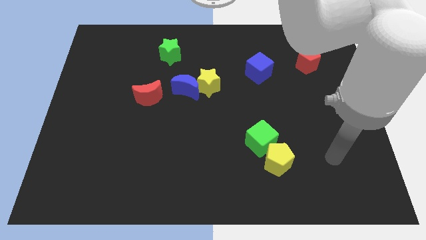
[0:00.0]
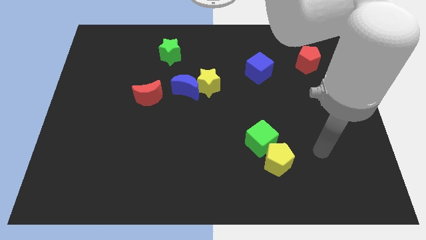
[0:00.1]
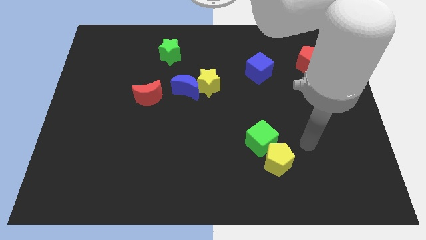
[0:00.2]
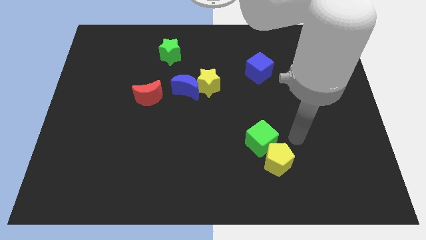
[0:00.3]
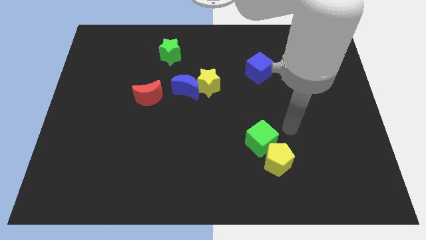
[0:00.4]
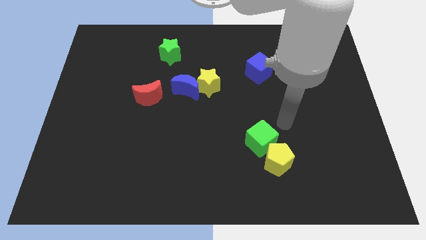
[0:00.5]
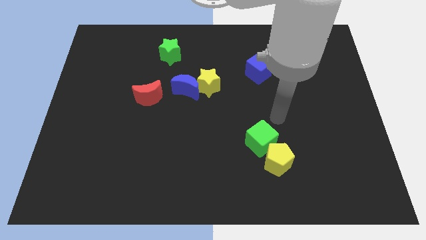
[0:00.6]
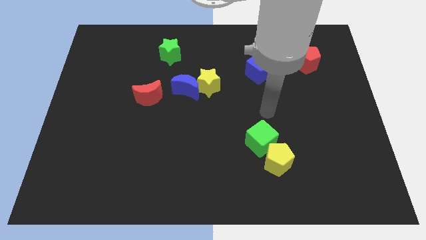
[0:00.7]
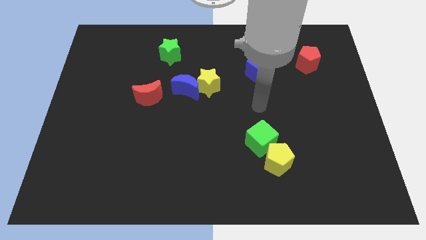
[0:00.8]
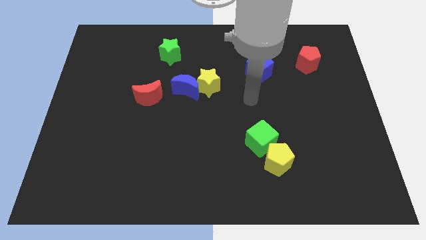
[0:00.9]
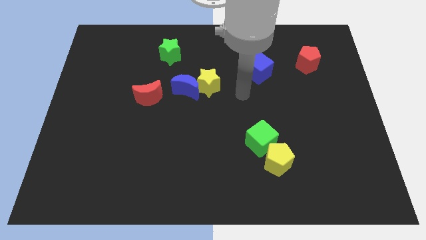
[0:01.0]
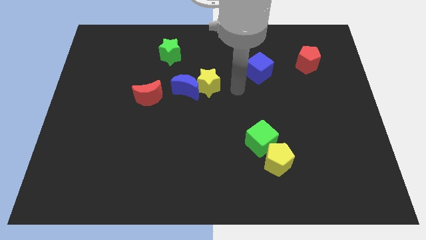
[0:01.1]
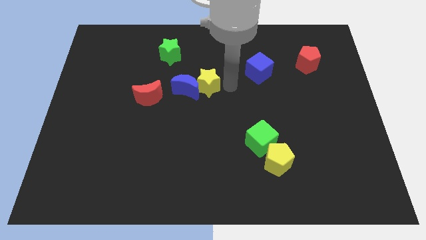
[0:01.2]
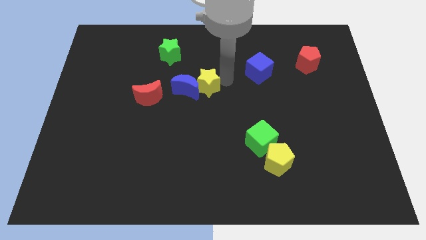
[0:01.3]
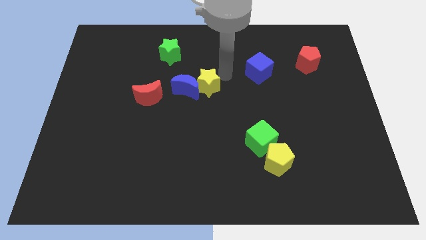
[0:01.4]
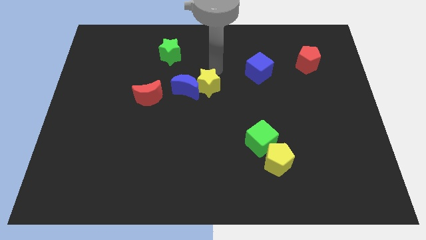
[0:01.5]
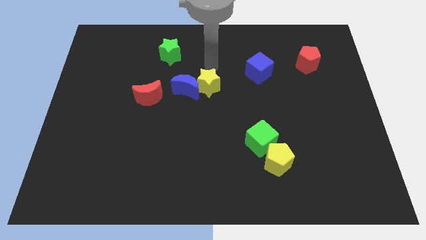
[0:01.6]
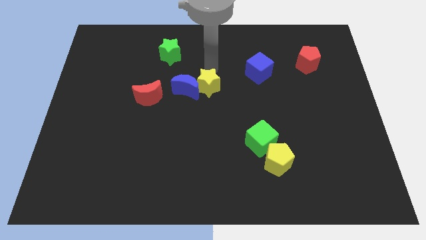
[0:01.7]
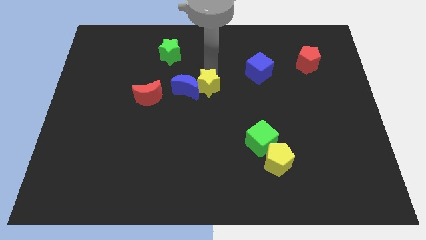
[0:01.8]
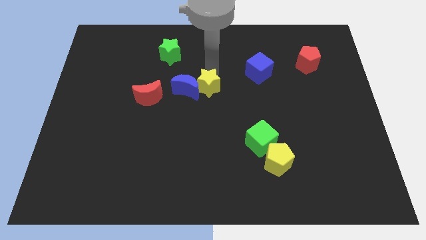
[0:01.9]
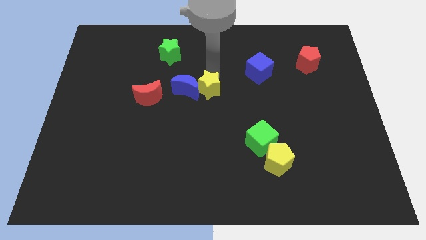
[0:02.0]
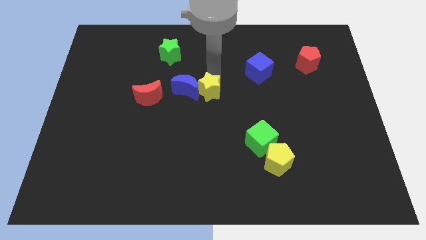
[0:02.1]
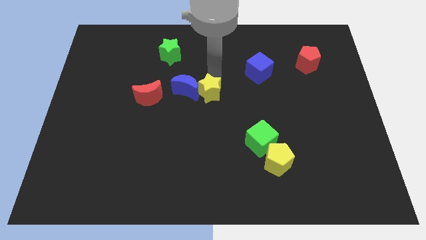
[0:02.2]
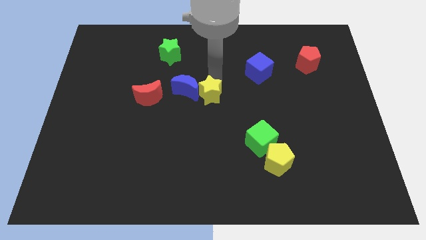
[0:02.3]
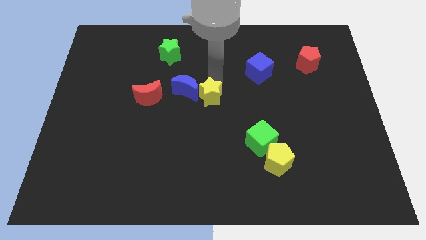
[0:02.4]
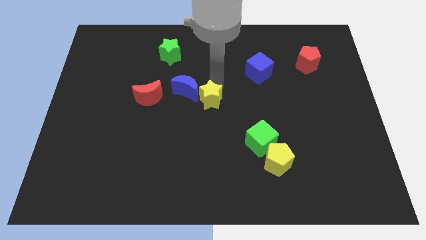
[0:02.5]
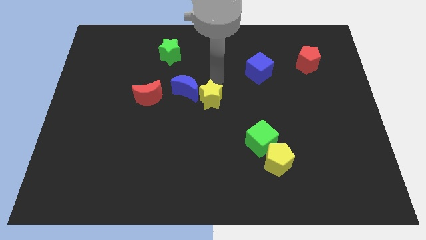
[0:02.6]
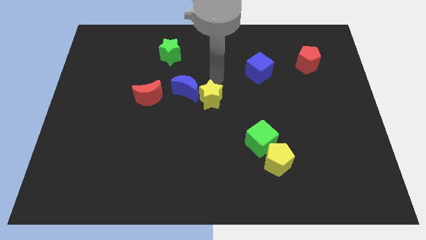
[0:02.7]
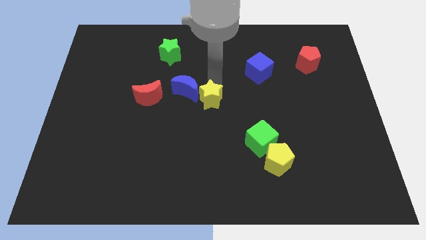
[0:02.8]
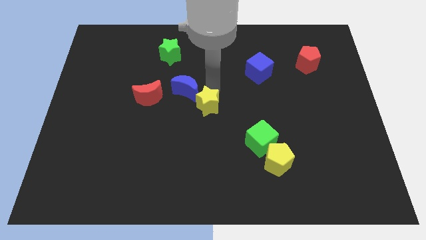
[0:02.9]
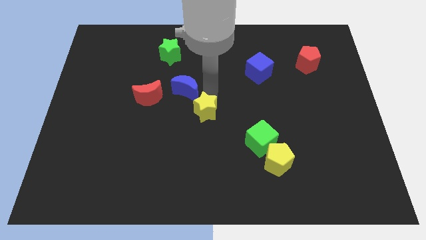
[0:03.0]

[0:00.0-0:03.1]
slide the yellow star a little bit down

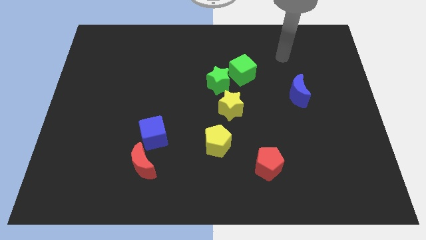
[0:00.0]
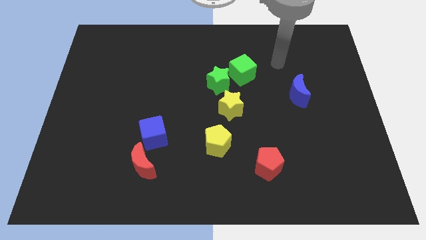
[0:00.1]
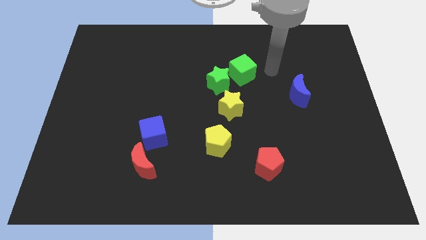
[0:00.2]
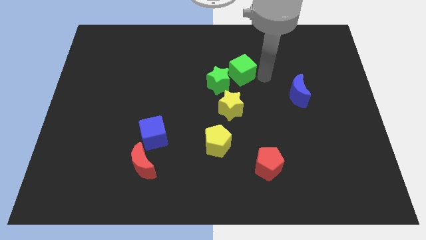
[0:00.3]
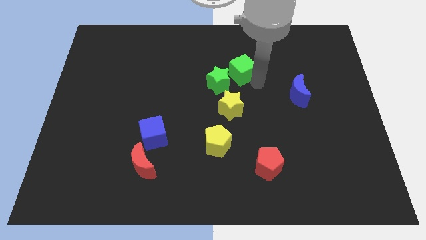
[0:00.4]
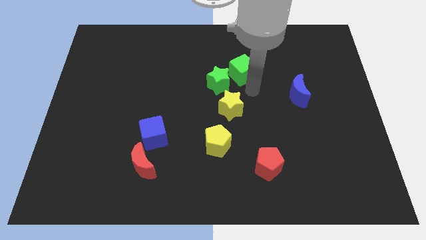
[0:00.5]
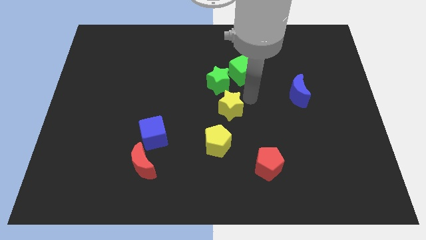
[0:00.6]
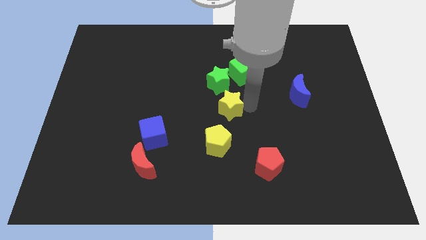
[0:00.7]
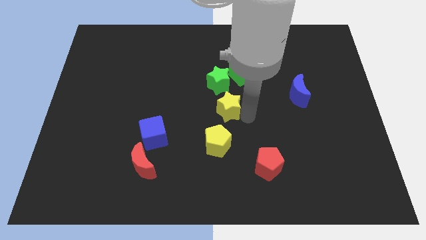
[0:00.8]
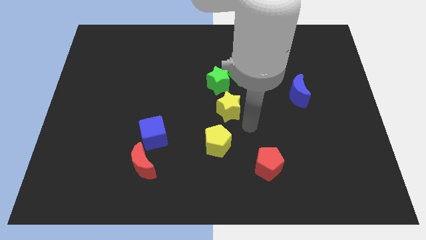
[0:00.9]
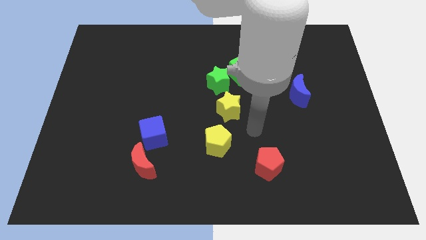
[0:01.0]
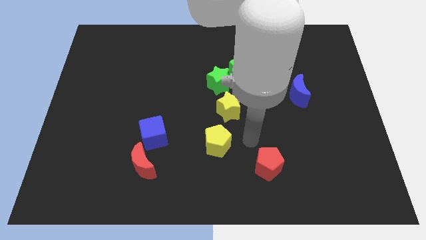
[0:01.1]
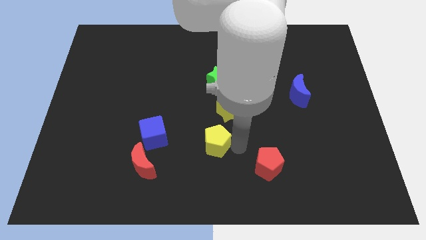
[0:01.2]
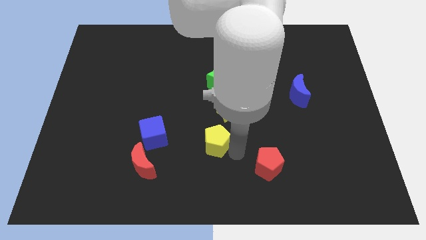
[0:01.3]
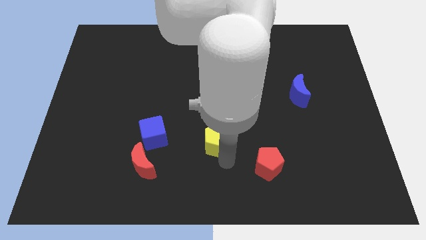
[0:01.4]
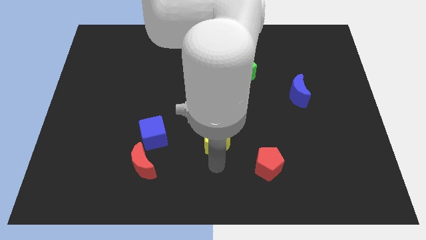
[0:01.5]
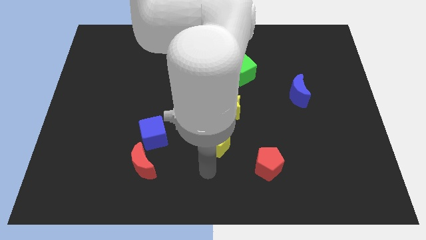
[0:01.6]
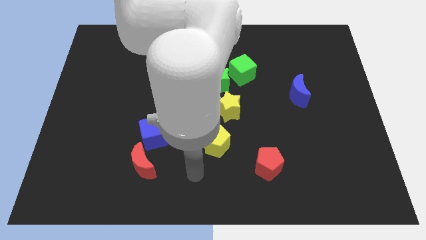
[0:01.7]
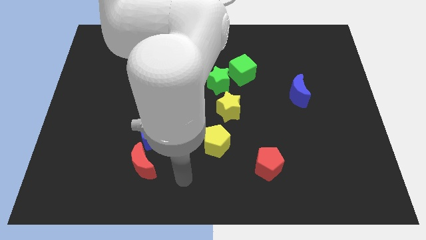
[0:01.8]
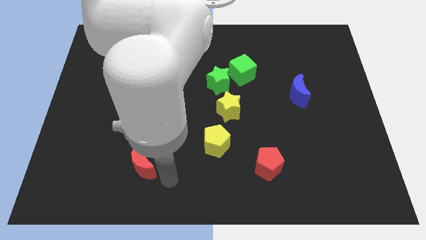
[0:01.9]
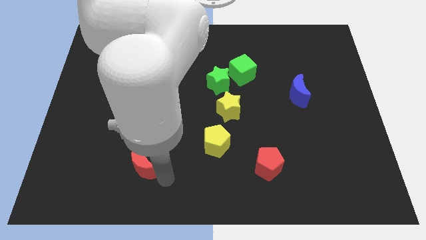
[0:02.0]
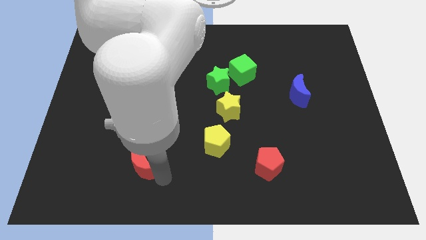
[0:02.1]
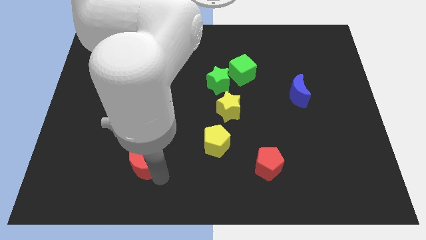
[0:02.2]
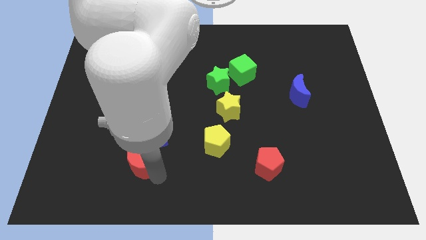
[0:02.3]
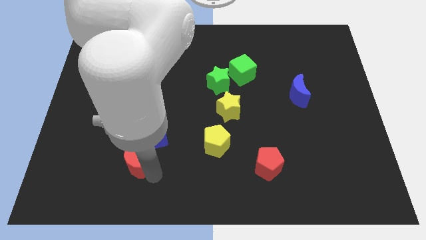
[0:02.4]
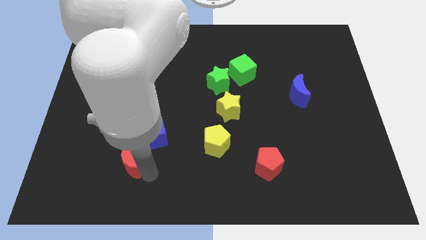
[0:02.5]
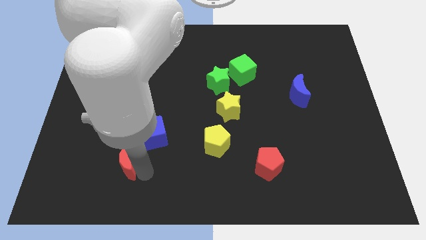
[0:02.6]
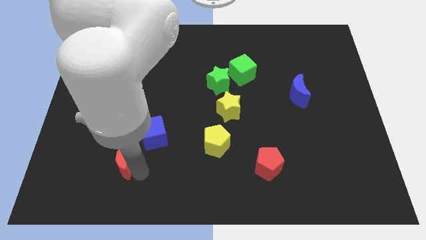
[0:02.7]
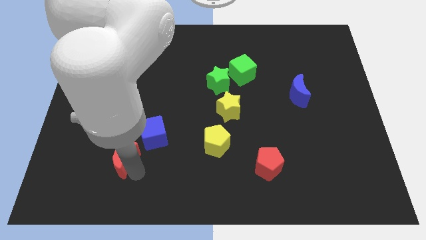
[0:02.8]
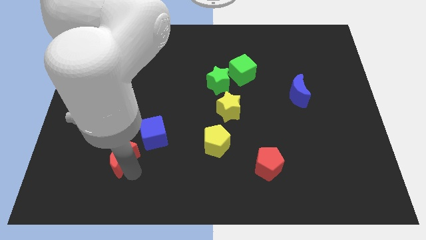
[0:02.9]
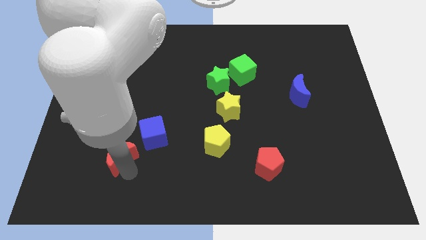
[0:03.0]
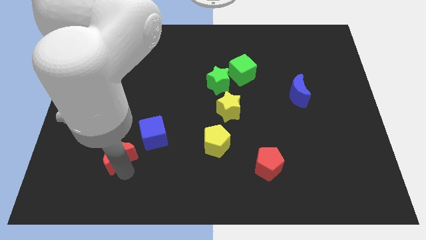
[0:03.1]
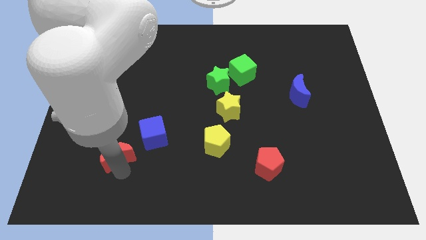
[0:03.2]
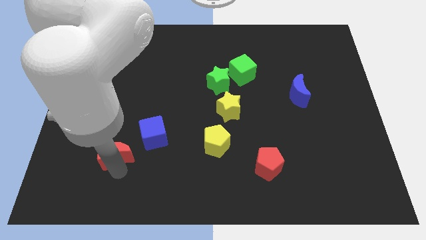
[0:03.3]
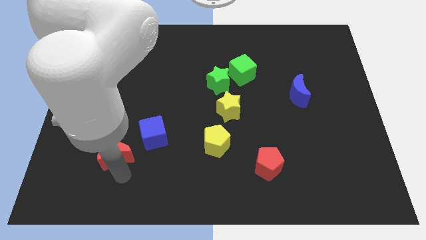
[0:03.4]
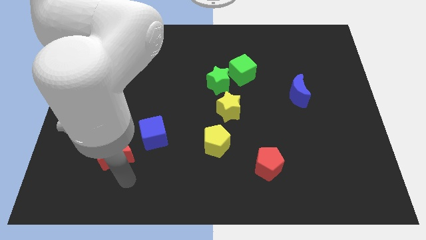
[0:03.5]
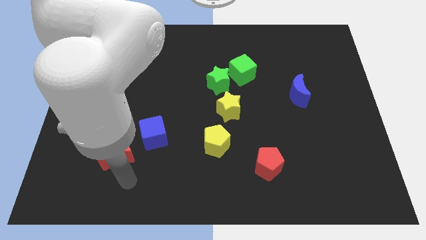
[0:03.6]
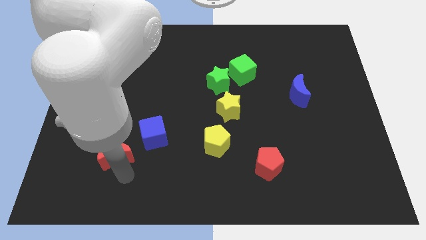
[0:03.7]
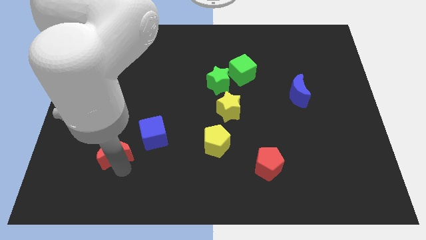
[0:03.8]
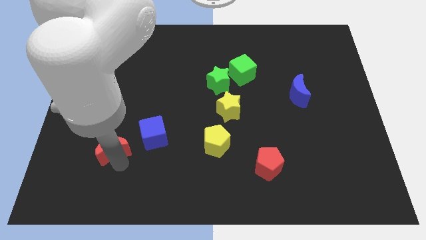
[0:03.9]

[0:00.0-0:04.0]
move the red moon upwards and left a bit

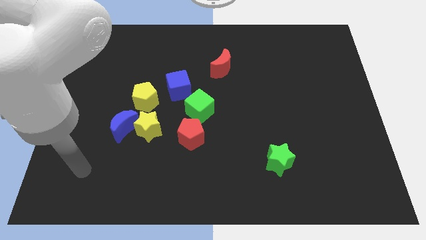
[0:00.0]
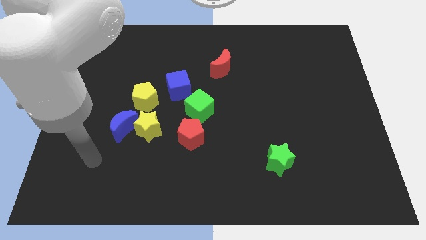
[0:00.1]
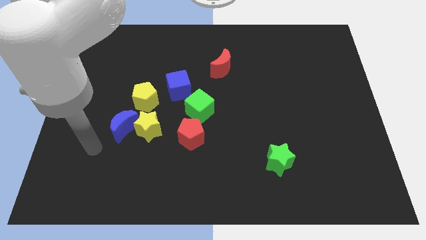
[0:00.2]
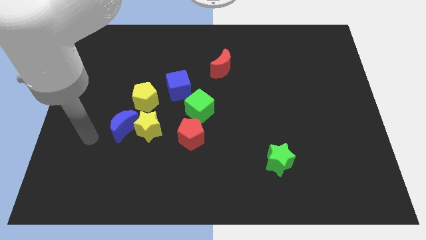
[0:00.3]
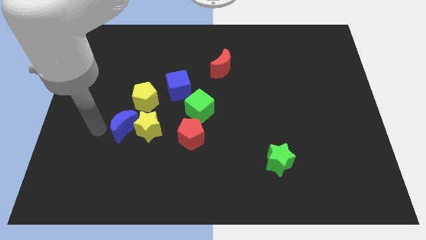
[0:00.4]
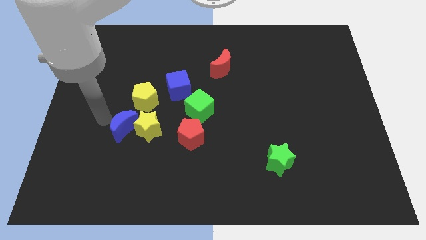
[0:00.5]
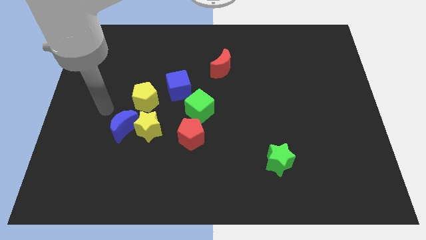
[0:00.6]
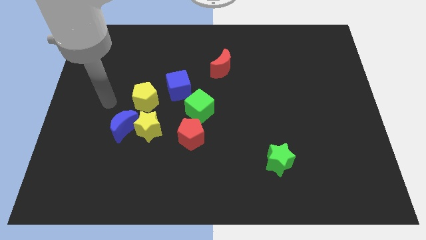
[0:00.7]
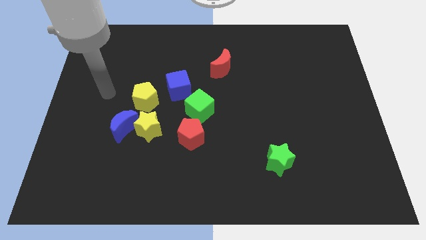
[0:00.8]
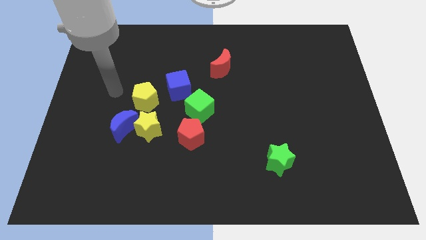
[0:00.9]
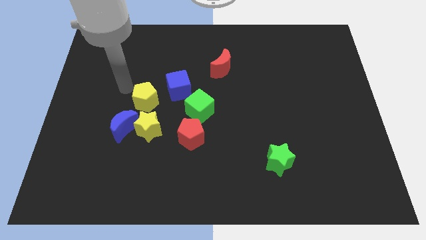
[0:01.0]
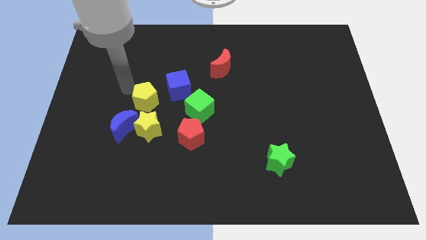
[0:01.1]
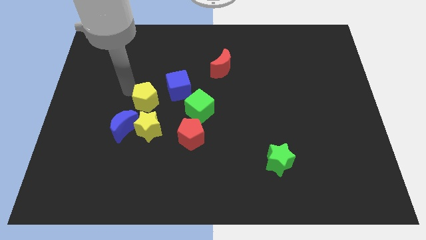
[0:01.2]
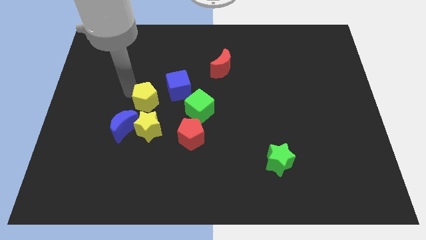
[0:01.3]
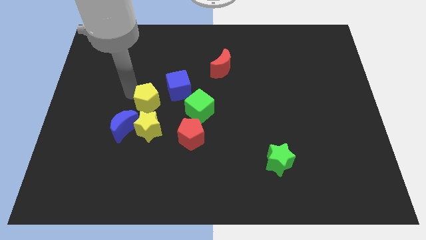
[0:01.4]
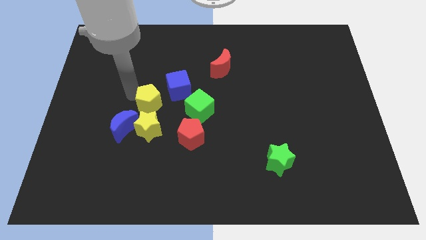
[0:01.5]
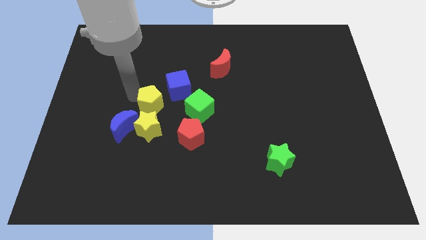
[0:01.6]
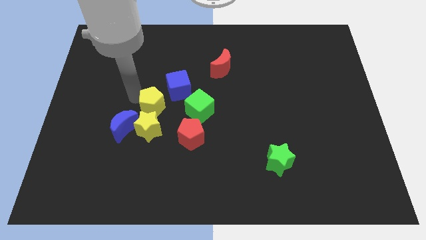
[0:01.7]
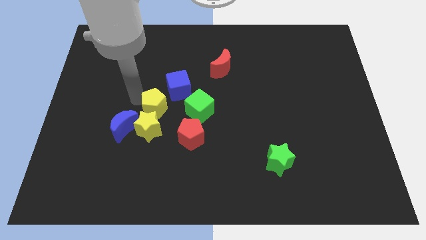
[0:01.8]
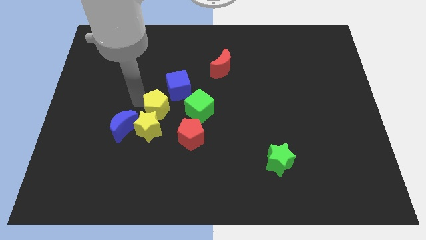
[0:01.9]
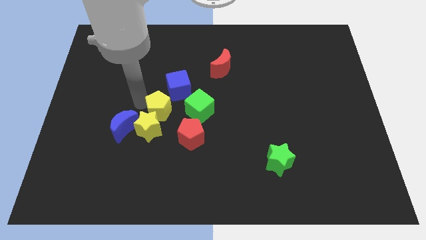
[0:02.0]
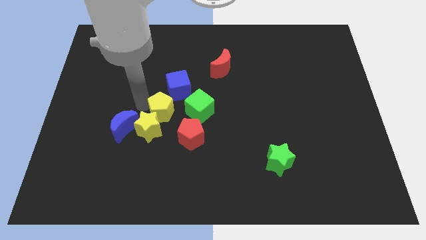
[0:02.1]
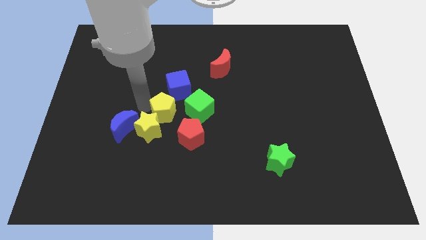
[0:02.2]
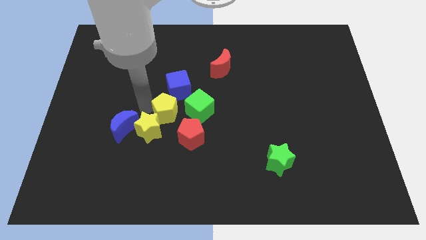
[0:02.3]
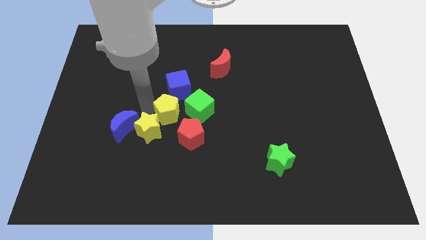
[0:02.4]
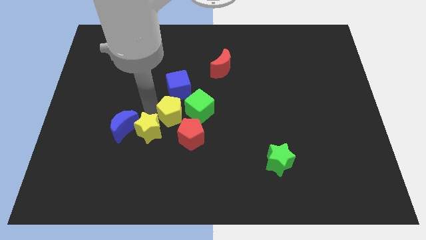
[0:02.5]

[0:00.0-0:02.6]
slightly slide the yellow pentagon down and to the right
